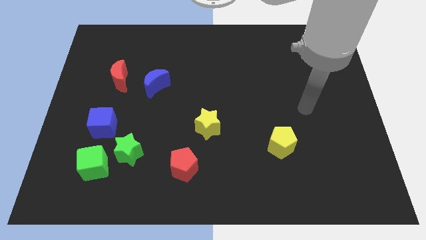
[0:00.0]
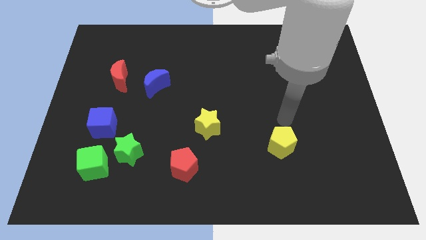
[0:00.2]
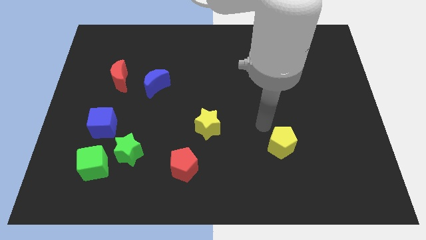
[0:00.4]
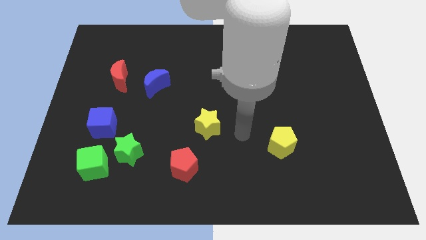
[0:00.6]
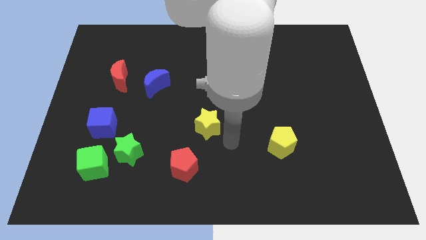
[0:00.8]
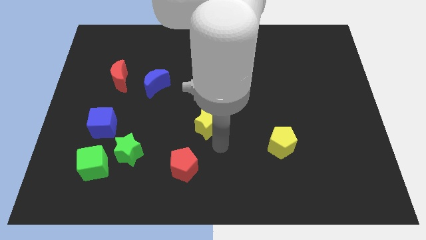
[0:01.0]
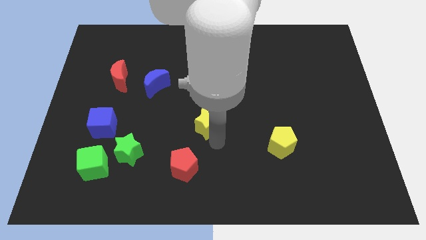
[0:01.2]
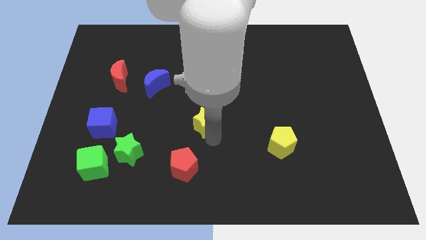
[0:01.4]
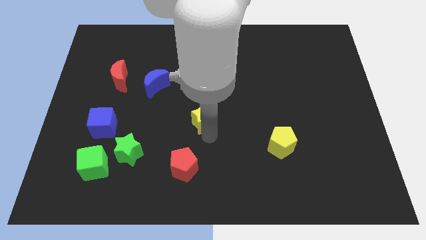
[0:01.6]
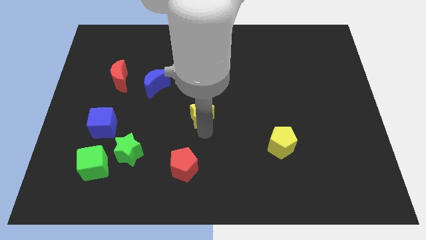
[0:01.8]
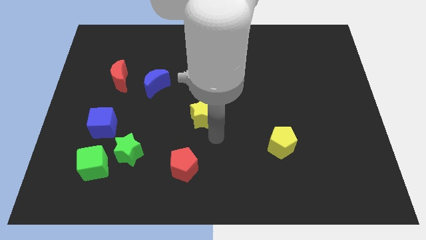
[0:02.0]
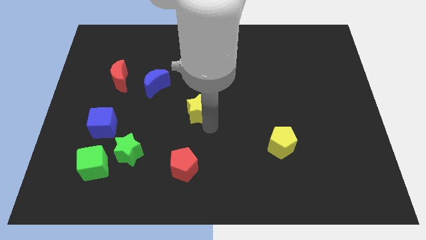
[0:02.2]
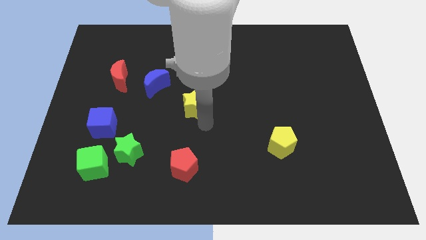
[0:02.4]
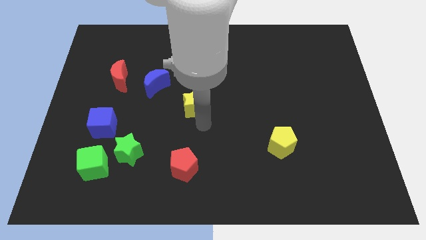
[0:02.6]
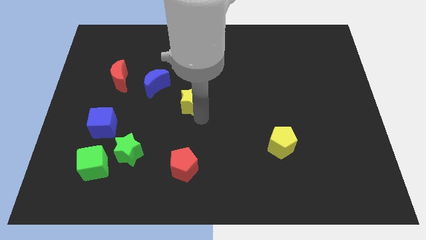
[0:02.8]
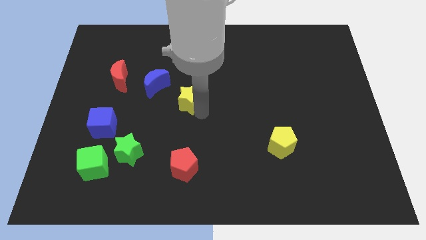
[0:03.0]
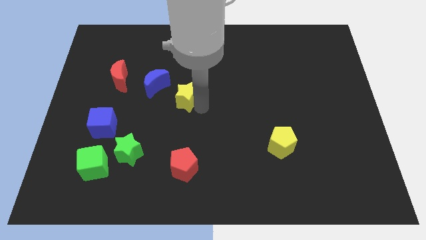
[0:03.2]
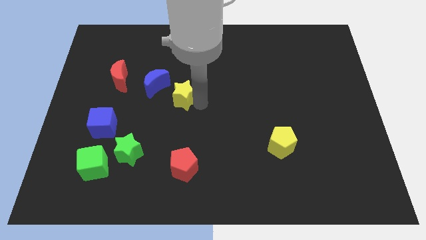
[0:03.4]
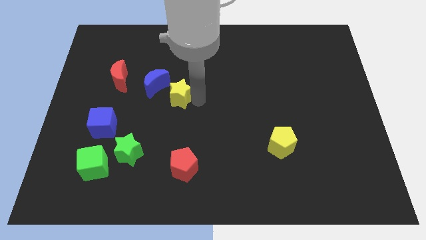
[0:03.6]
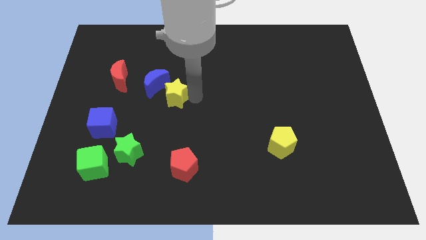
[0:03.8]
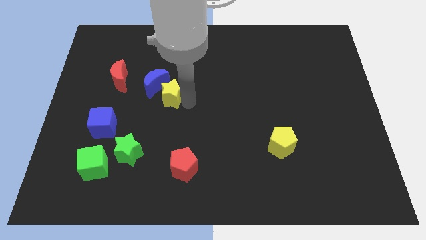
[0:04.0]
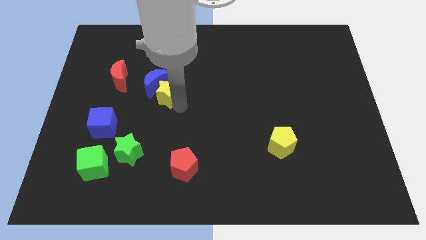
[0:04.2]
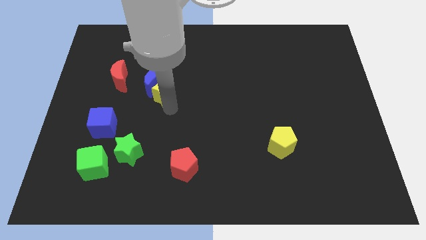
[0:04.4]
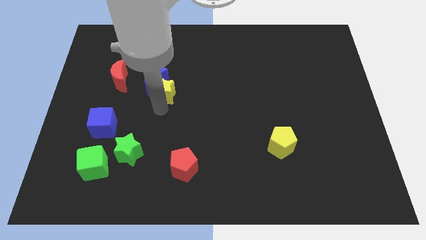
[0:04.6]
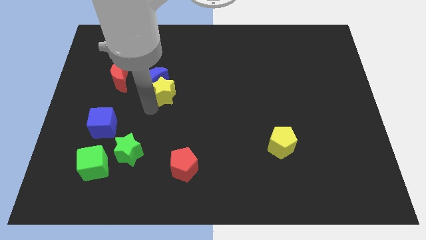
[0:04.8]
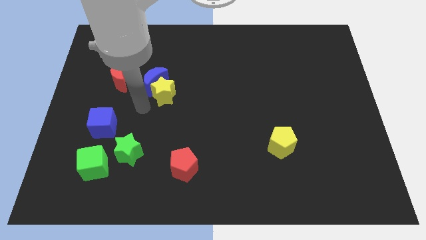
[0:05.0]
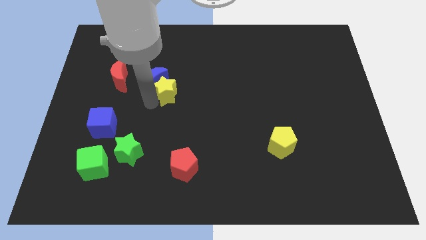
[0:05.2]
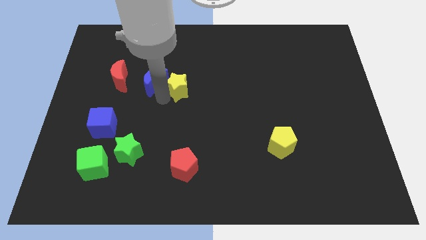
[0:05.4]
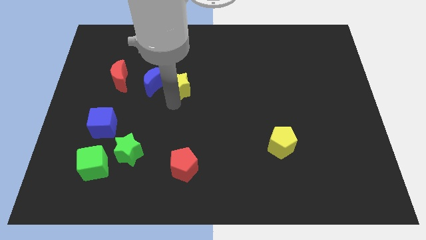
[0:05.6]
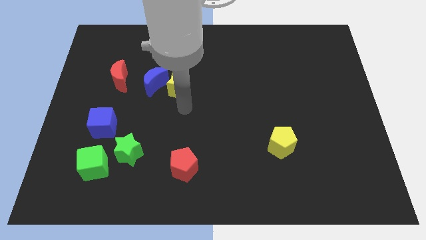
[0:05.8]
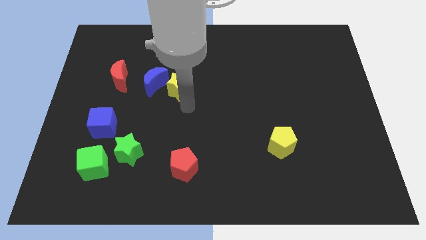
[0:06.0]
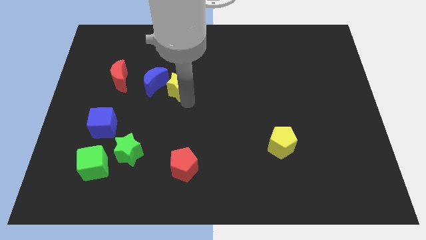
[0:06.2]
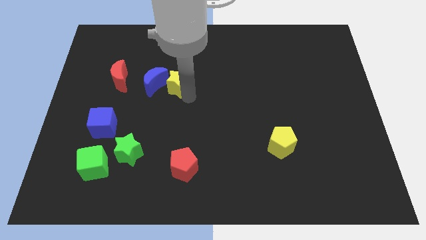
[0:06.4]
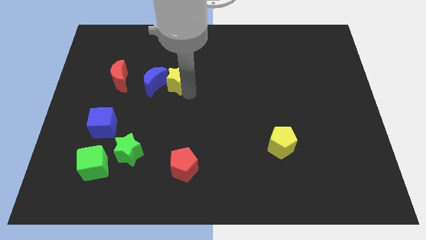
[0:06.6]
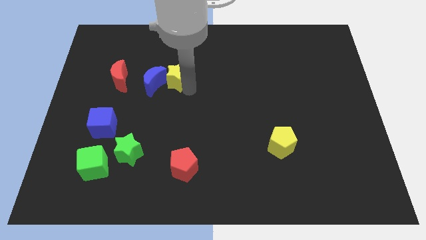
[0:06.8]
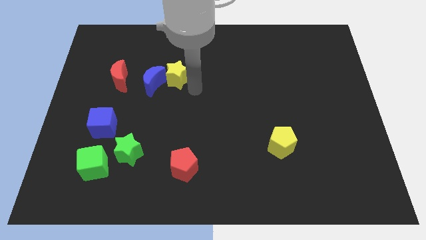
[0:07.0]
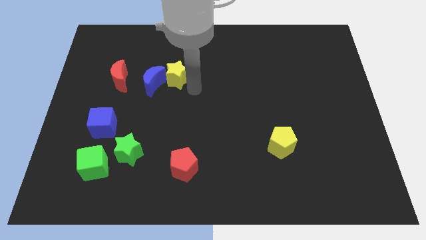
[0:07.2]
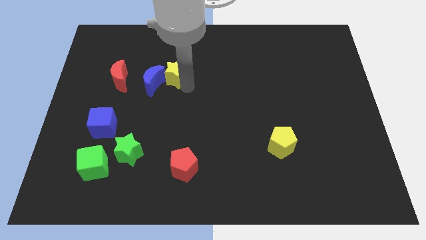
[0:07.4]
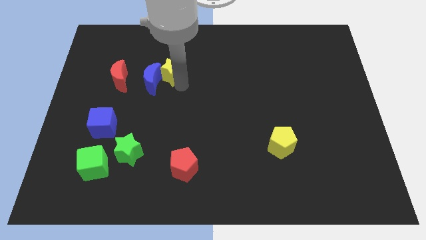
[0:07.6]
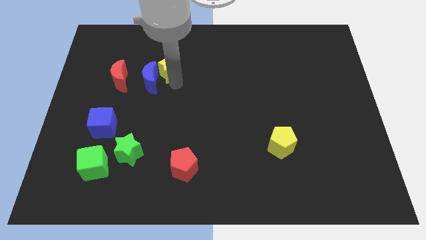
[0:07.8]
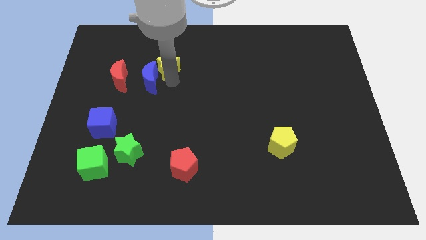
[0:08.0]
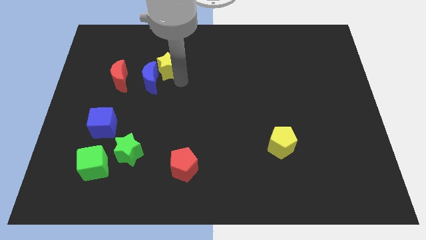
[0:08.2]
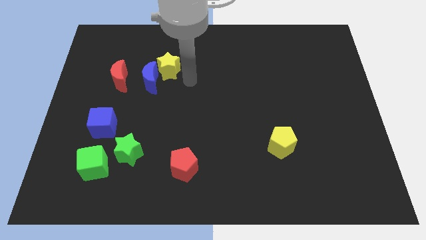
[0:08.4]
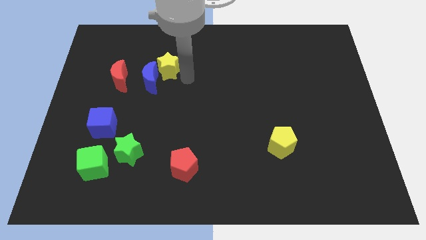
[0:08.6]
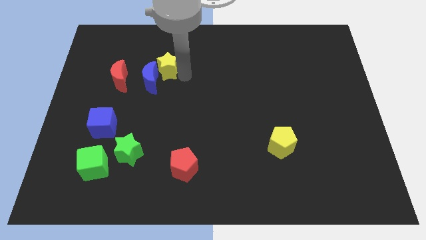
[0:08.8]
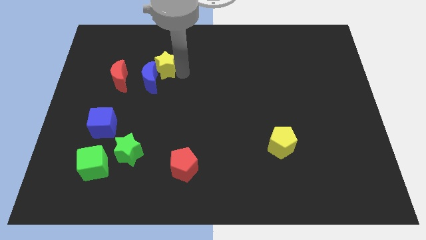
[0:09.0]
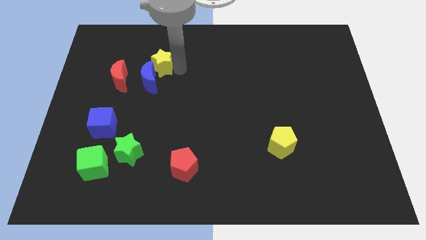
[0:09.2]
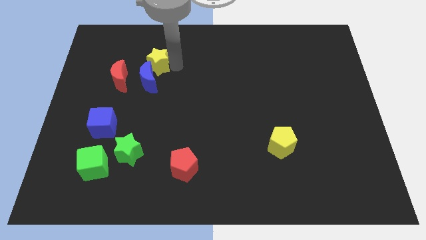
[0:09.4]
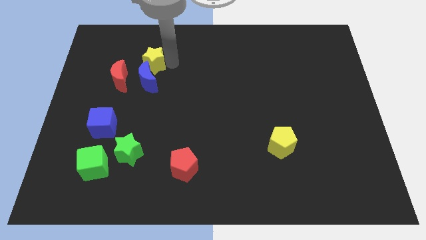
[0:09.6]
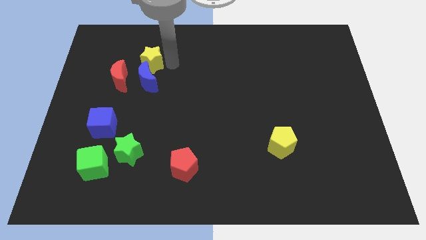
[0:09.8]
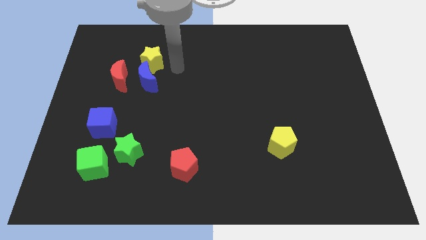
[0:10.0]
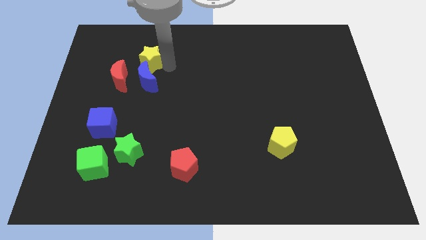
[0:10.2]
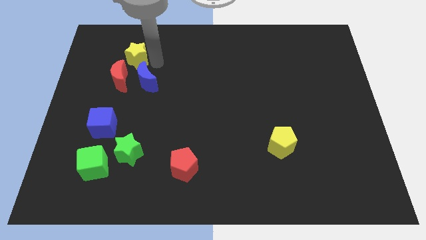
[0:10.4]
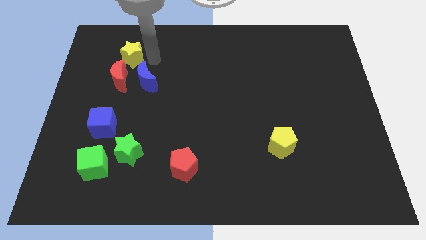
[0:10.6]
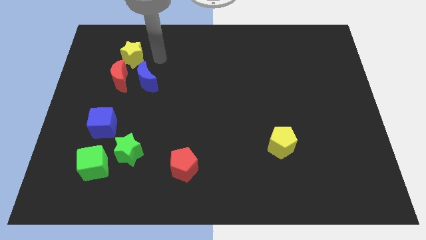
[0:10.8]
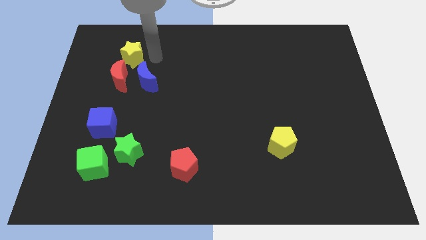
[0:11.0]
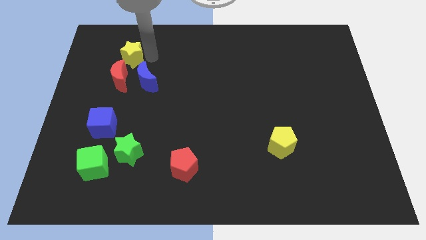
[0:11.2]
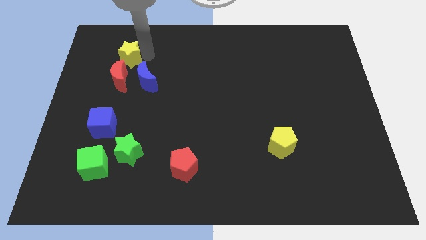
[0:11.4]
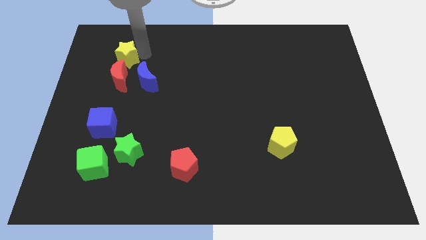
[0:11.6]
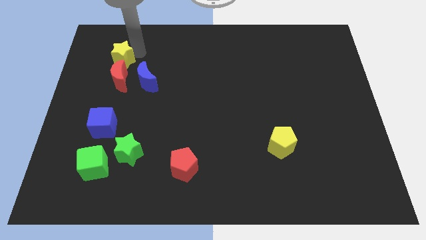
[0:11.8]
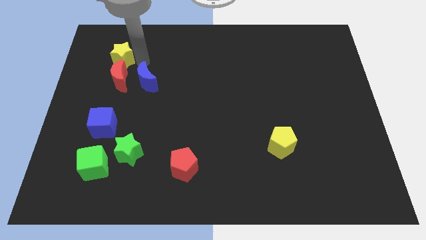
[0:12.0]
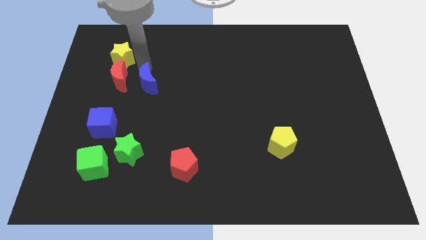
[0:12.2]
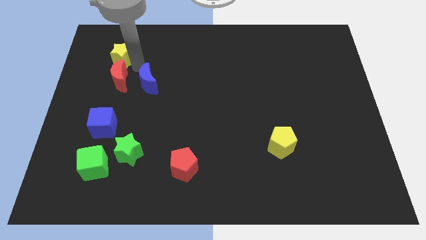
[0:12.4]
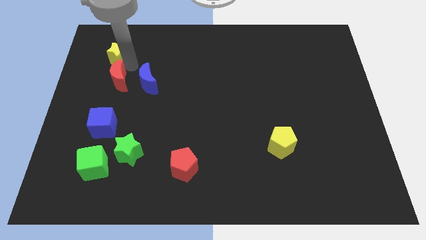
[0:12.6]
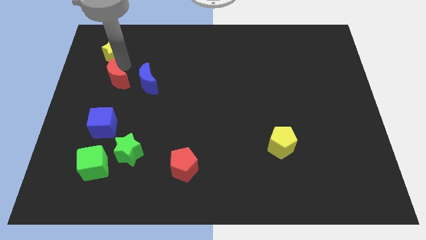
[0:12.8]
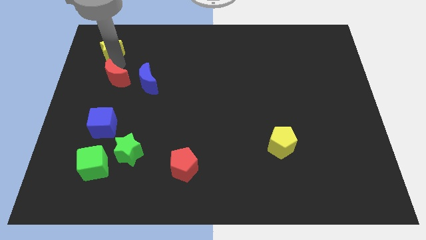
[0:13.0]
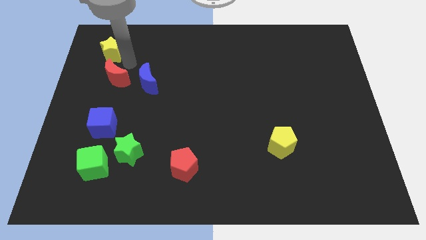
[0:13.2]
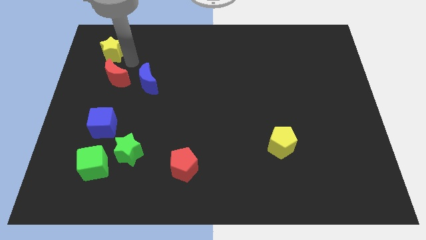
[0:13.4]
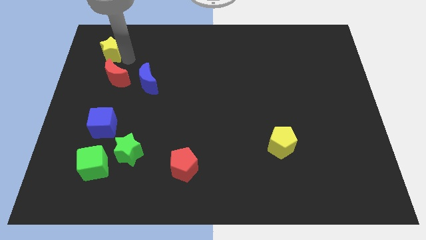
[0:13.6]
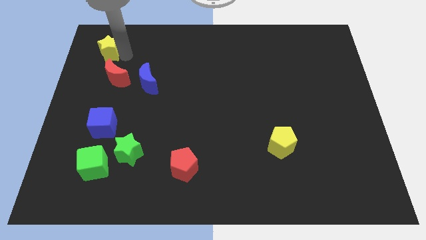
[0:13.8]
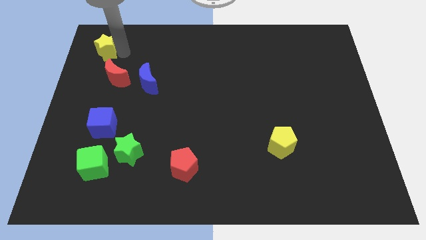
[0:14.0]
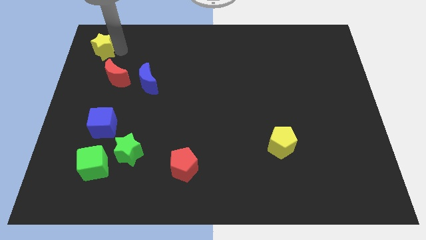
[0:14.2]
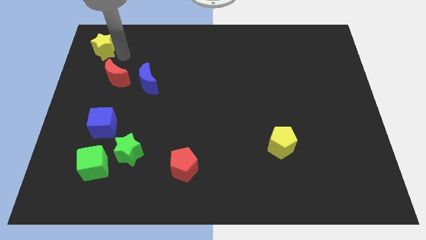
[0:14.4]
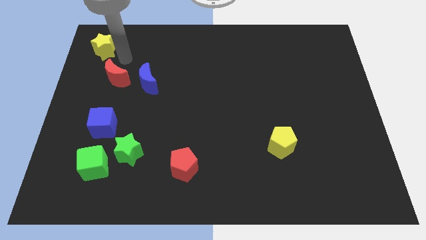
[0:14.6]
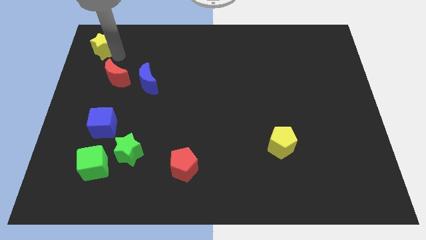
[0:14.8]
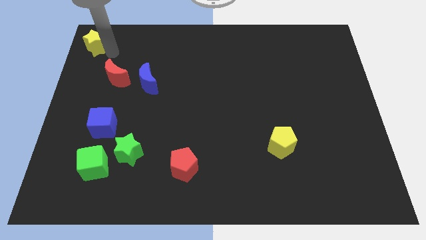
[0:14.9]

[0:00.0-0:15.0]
push the yellow star to the top left
